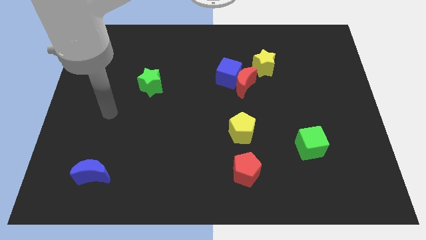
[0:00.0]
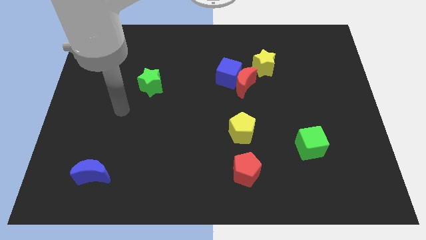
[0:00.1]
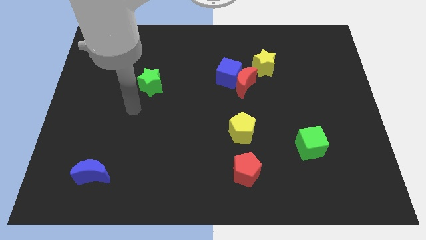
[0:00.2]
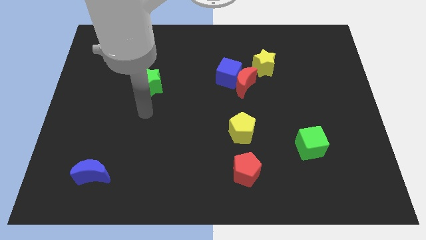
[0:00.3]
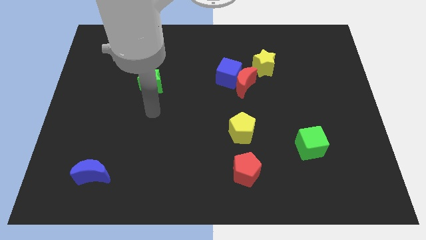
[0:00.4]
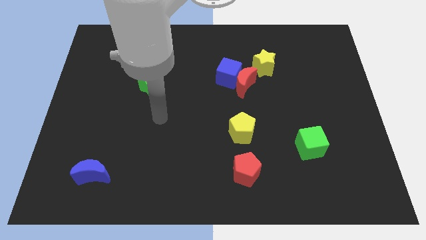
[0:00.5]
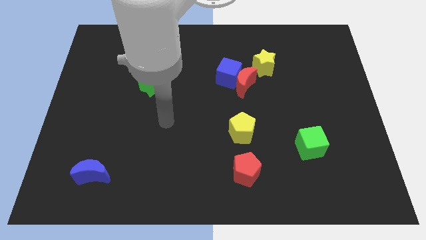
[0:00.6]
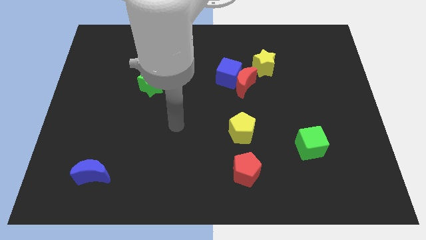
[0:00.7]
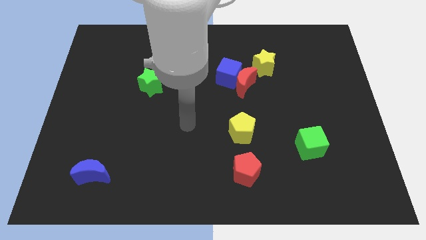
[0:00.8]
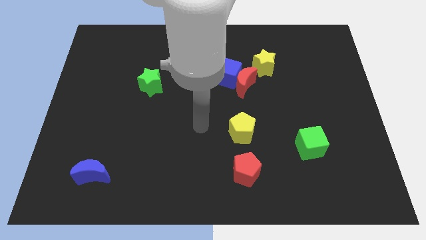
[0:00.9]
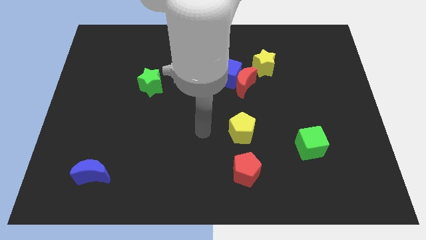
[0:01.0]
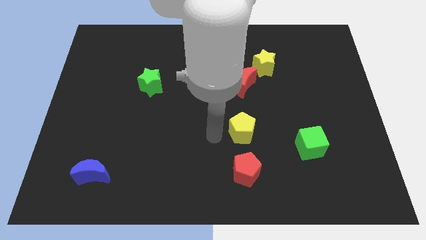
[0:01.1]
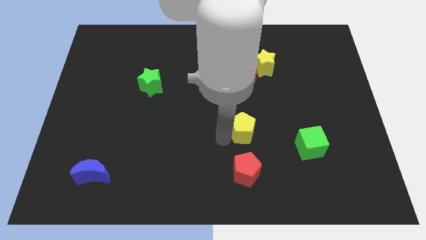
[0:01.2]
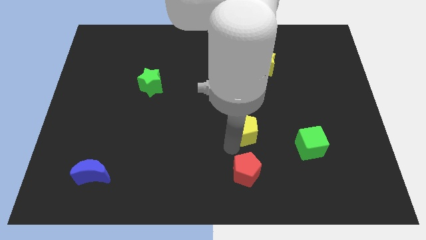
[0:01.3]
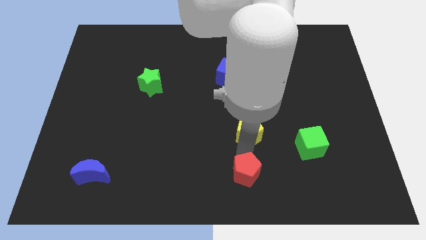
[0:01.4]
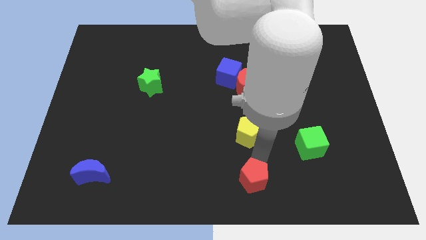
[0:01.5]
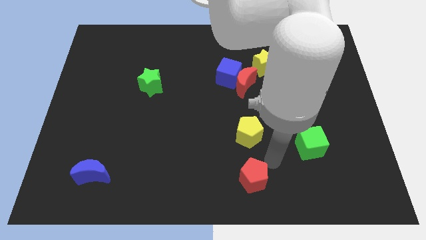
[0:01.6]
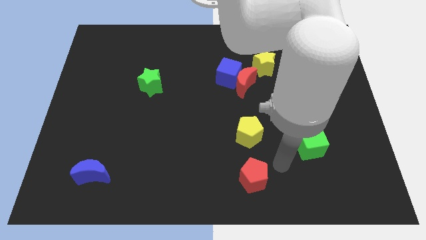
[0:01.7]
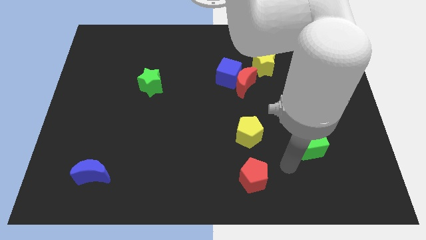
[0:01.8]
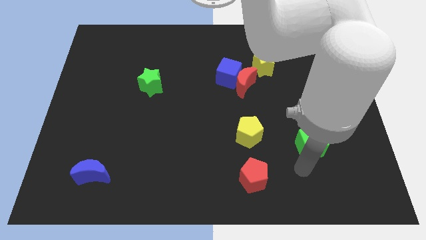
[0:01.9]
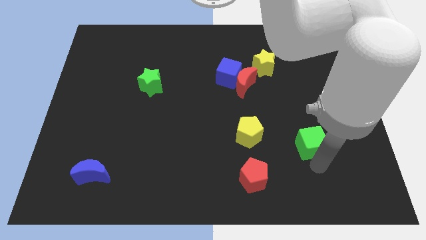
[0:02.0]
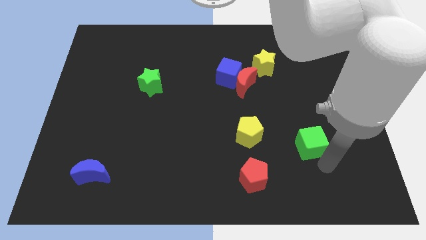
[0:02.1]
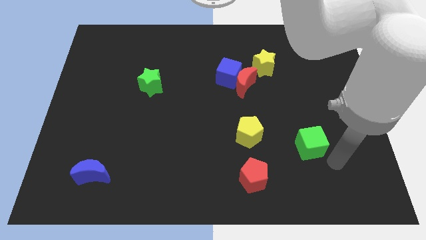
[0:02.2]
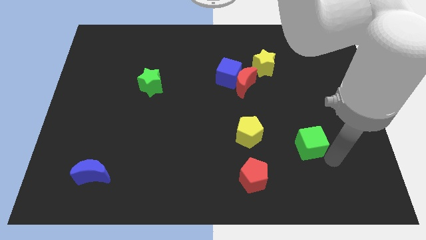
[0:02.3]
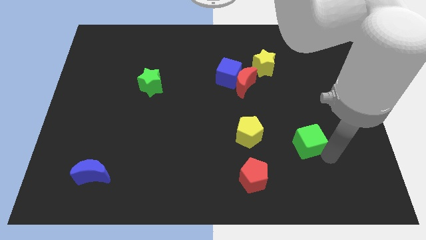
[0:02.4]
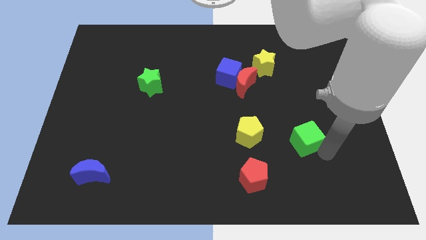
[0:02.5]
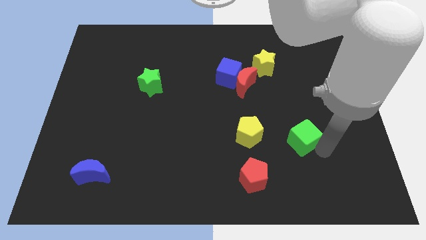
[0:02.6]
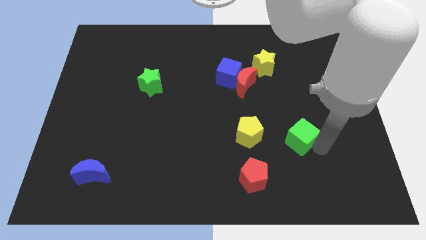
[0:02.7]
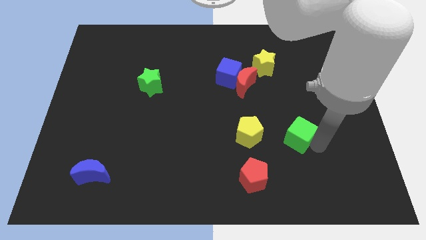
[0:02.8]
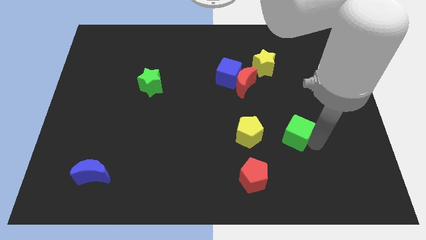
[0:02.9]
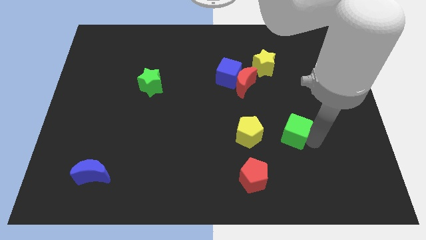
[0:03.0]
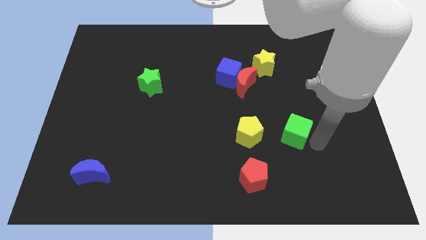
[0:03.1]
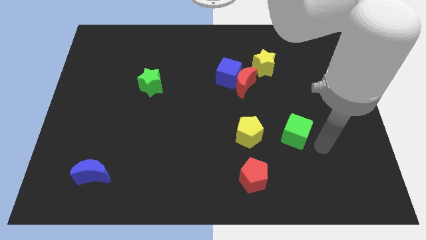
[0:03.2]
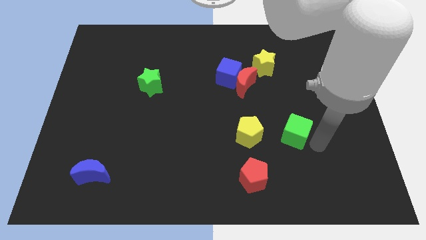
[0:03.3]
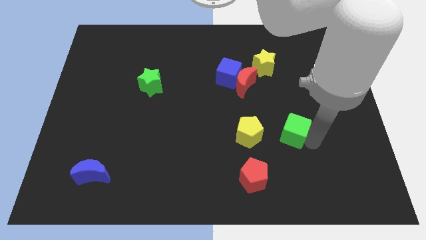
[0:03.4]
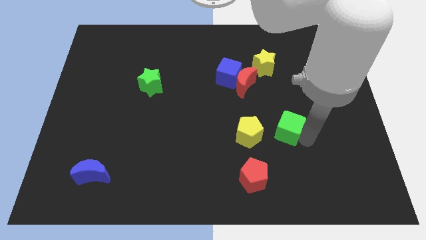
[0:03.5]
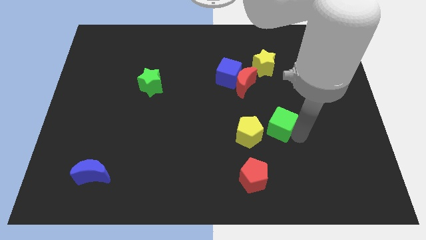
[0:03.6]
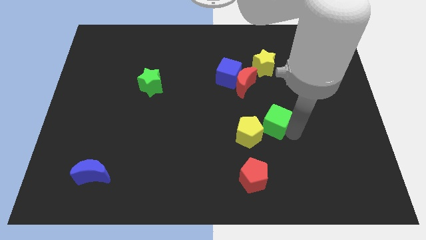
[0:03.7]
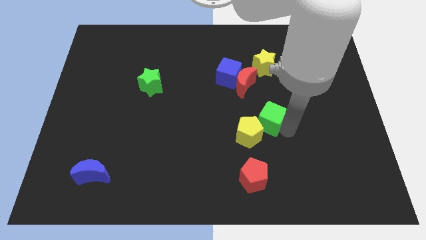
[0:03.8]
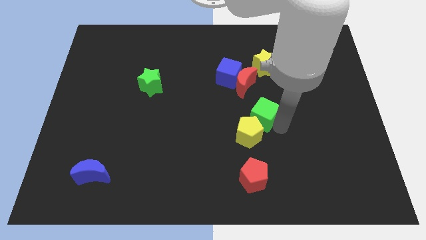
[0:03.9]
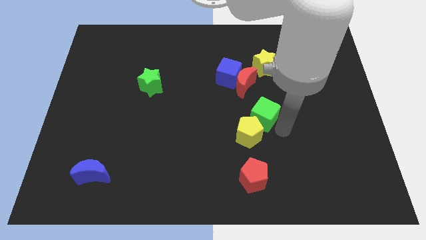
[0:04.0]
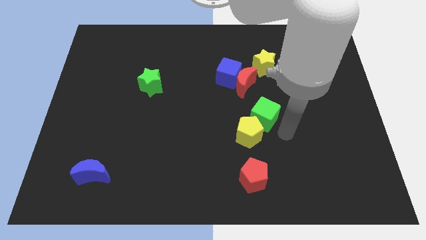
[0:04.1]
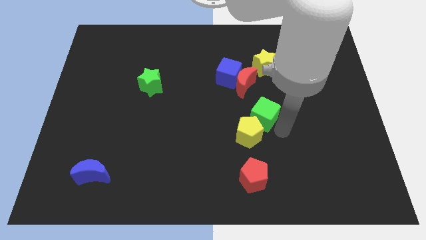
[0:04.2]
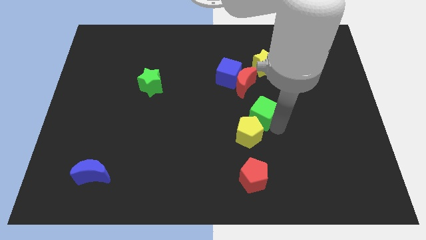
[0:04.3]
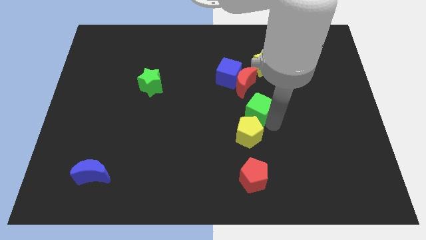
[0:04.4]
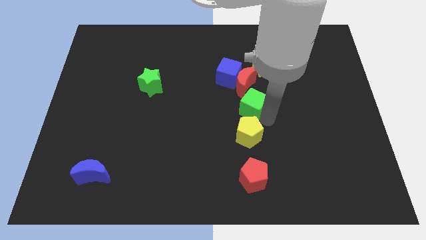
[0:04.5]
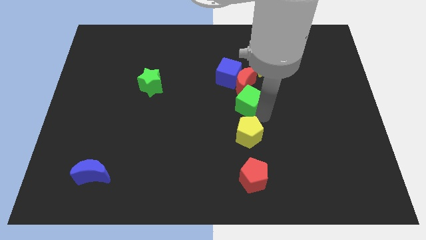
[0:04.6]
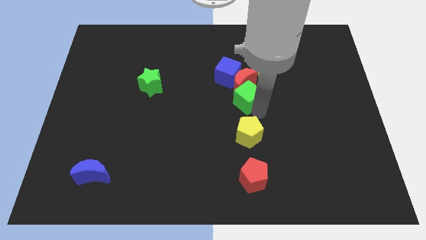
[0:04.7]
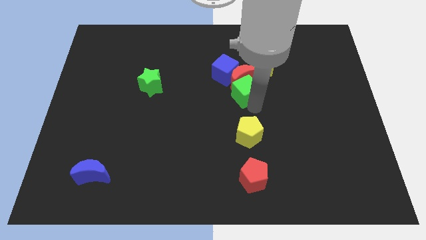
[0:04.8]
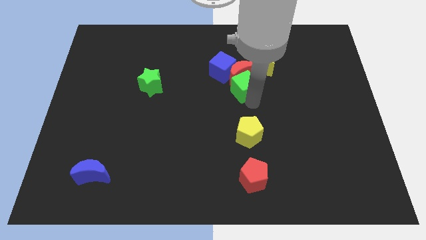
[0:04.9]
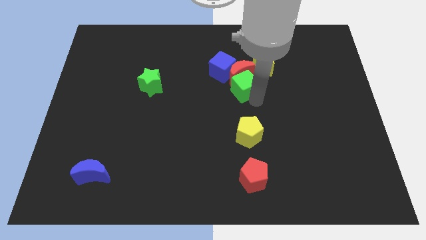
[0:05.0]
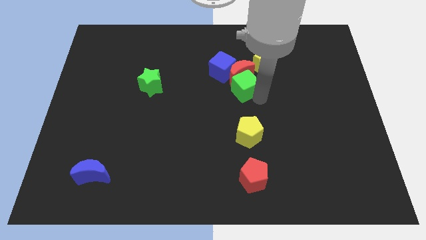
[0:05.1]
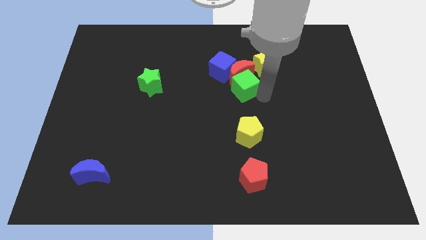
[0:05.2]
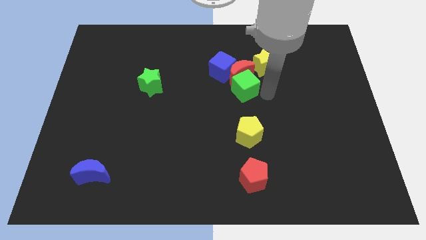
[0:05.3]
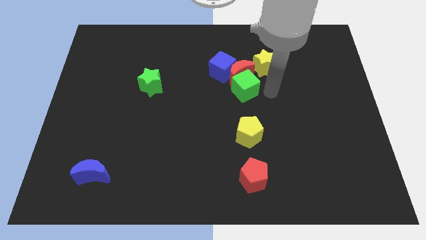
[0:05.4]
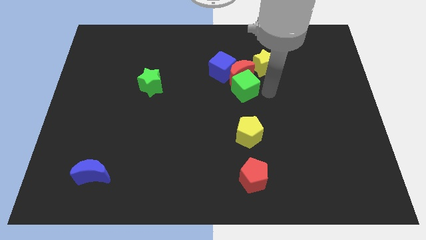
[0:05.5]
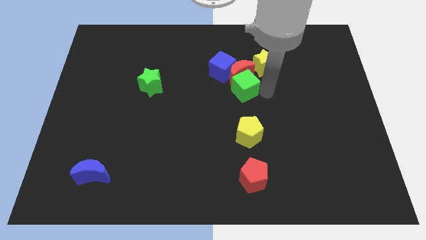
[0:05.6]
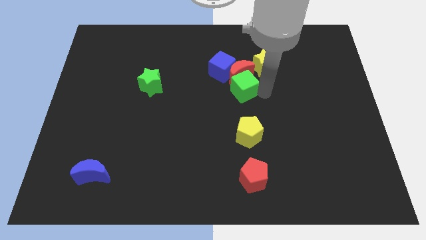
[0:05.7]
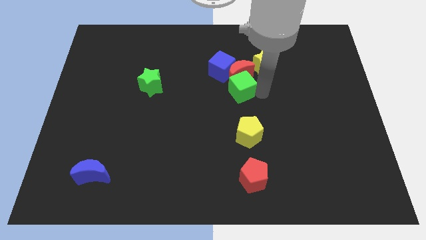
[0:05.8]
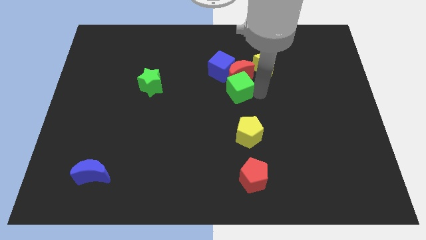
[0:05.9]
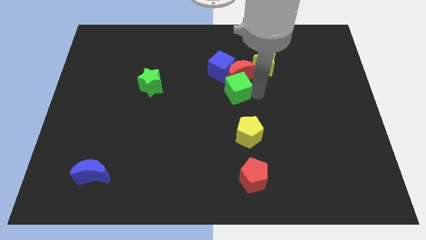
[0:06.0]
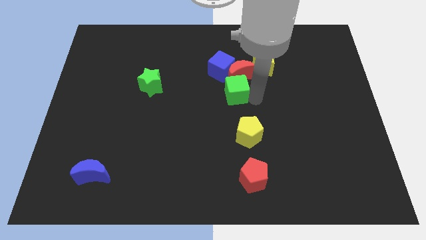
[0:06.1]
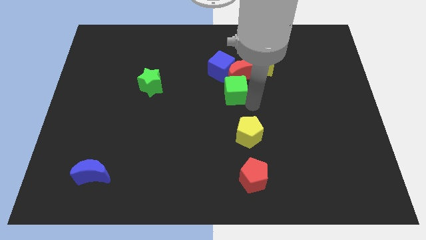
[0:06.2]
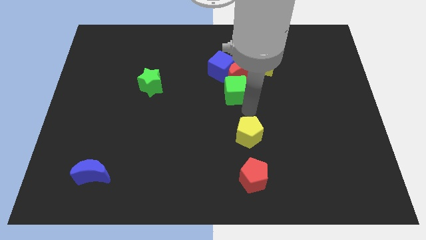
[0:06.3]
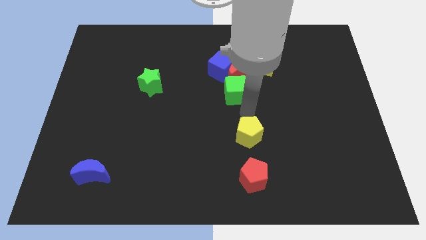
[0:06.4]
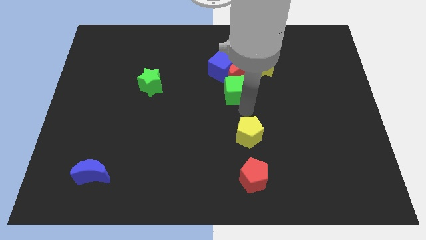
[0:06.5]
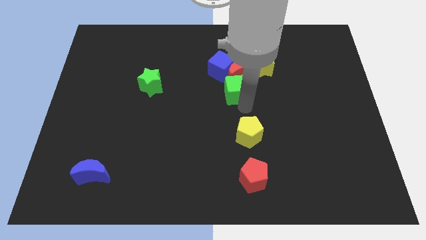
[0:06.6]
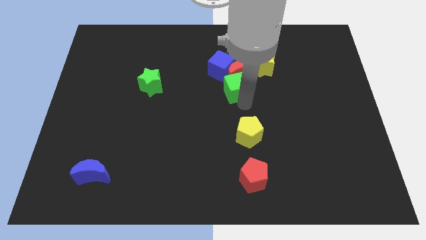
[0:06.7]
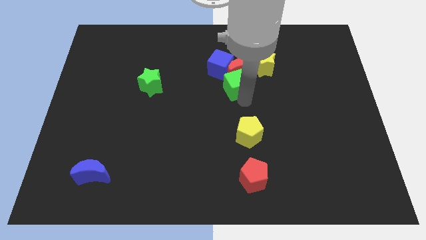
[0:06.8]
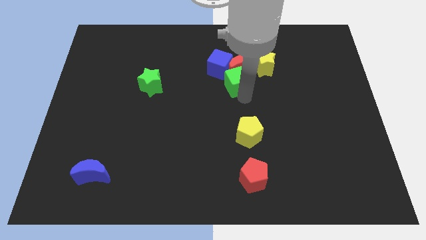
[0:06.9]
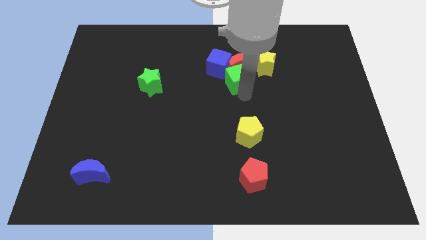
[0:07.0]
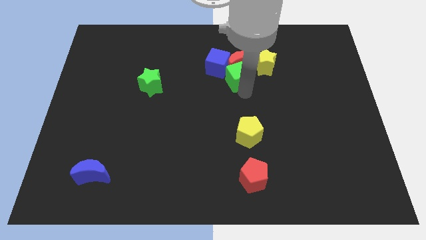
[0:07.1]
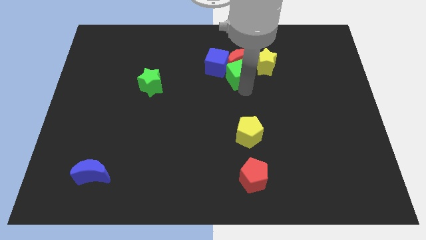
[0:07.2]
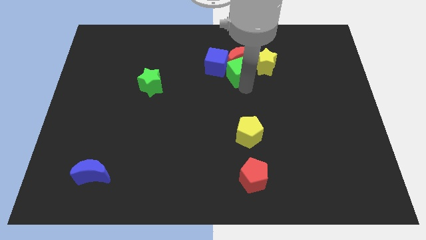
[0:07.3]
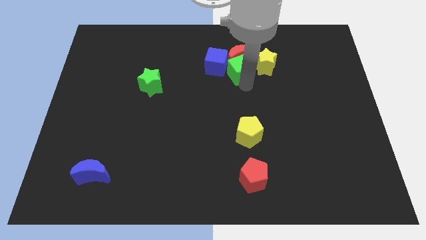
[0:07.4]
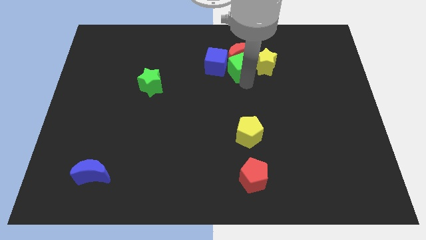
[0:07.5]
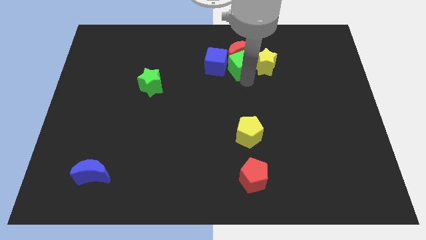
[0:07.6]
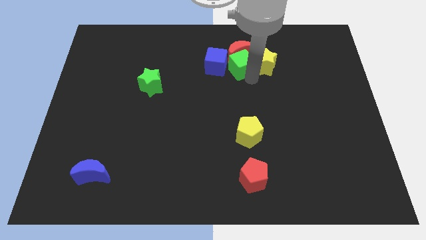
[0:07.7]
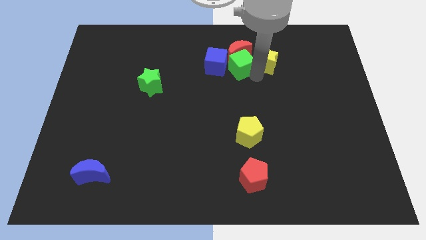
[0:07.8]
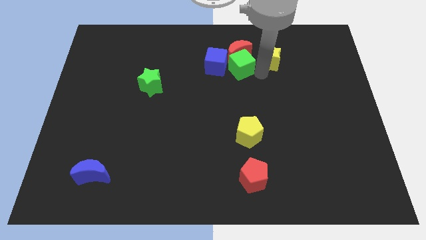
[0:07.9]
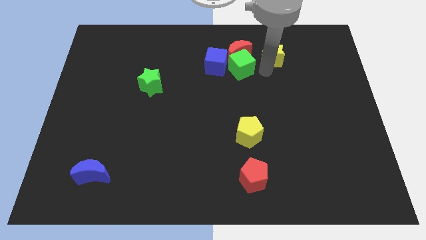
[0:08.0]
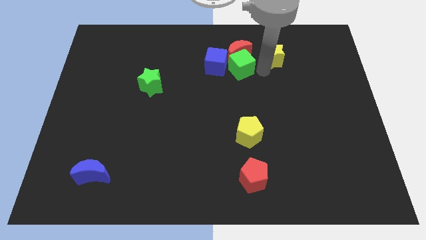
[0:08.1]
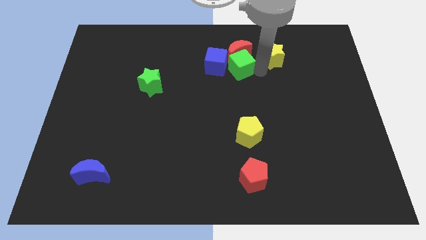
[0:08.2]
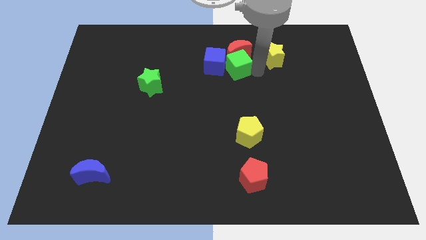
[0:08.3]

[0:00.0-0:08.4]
move the green cube to the blue cube
